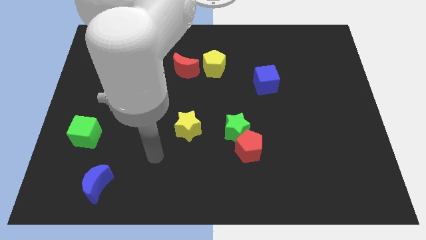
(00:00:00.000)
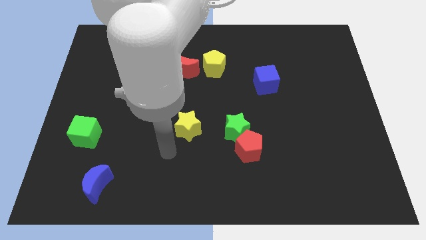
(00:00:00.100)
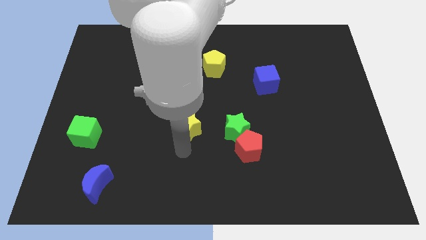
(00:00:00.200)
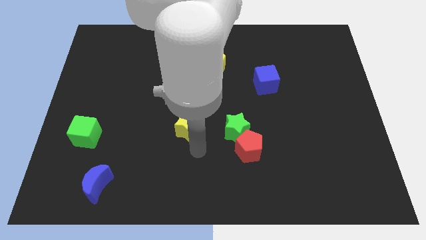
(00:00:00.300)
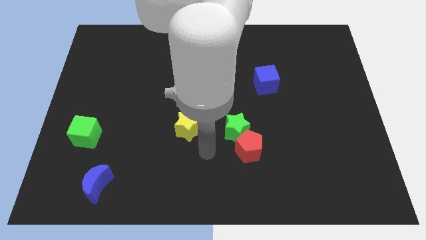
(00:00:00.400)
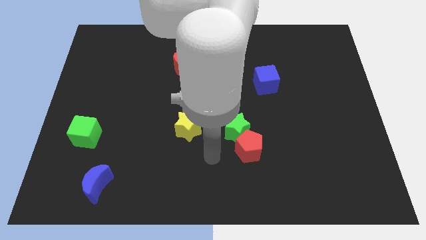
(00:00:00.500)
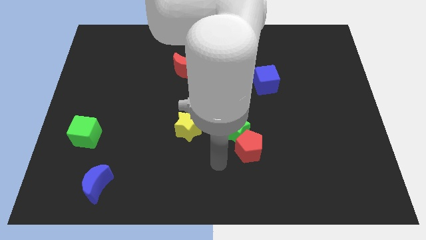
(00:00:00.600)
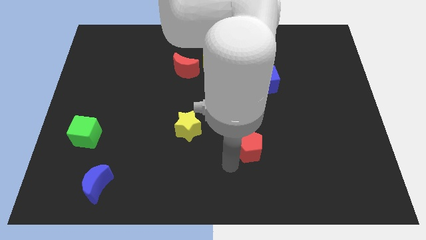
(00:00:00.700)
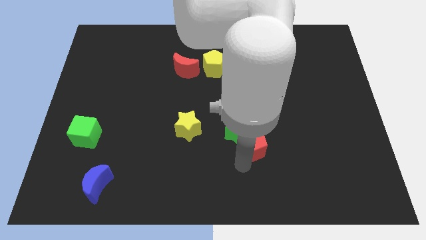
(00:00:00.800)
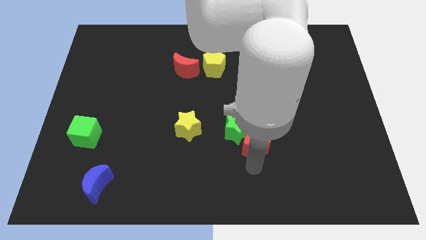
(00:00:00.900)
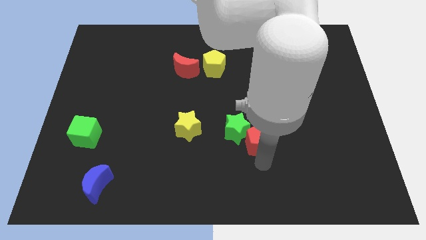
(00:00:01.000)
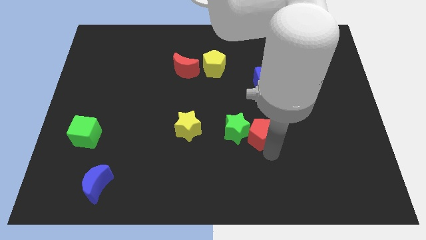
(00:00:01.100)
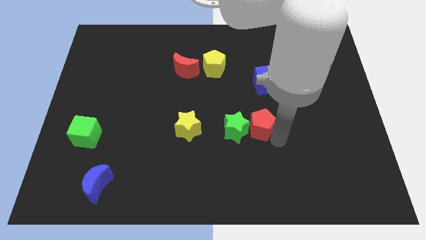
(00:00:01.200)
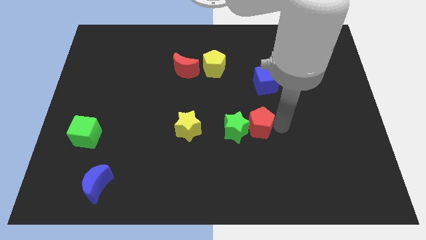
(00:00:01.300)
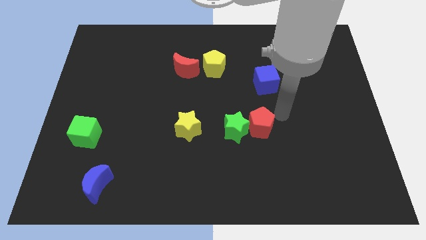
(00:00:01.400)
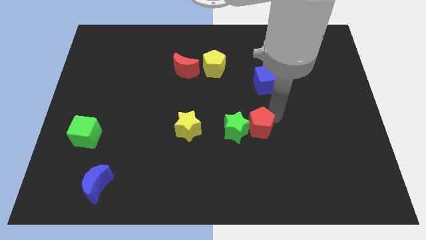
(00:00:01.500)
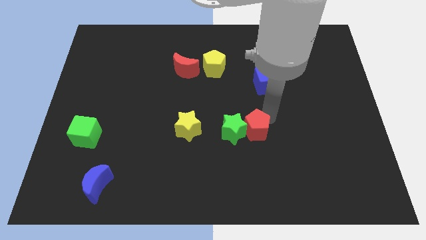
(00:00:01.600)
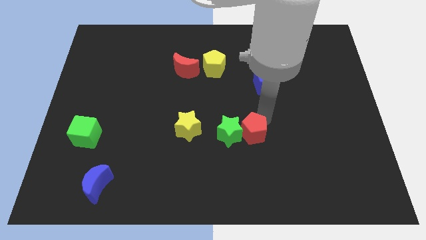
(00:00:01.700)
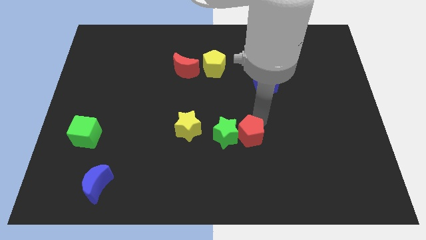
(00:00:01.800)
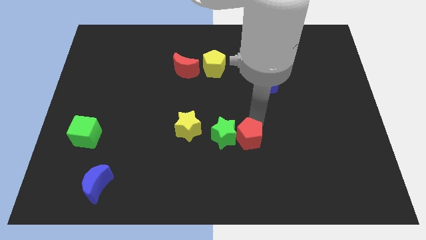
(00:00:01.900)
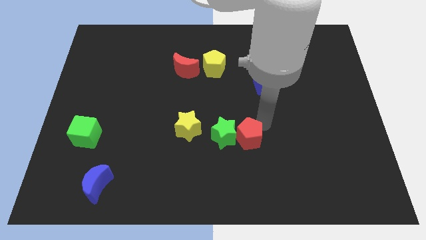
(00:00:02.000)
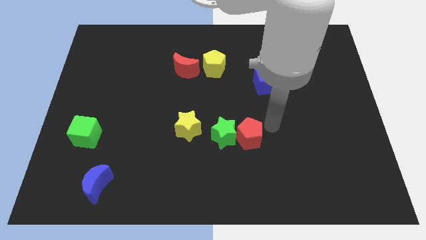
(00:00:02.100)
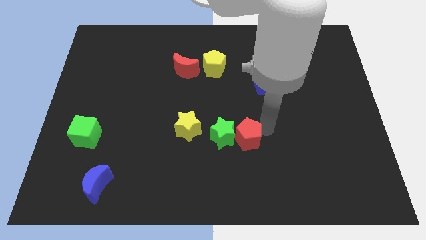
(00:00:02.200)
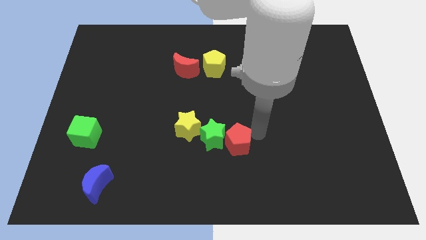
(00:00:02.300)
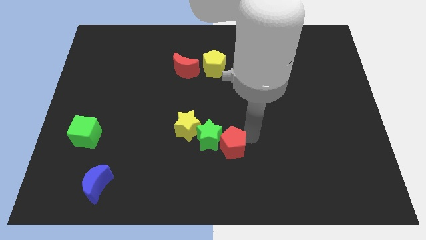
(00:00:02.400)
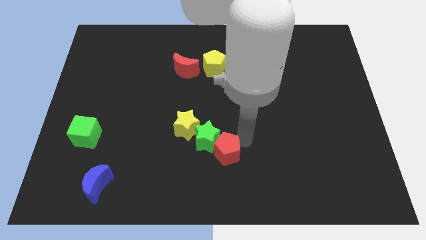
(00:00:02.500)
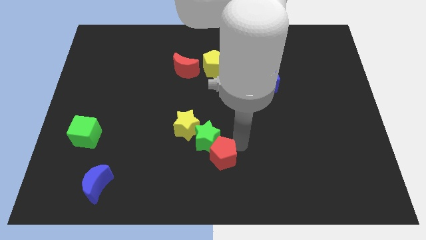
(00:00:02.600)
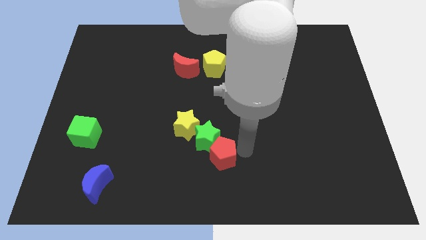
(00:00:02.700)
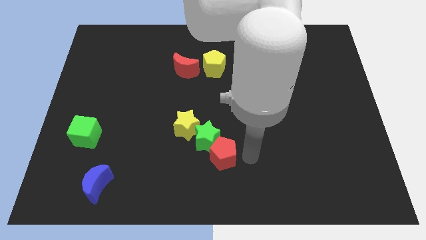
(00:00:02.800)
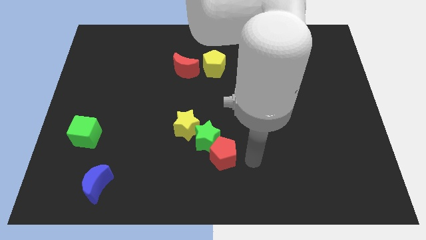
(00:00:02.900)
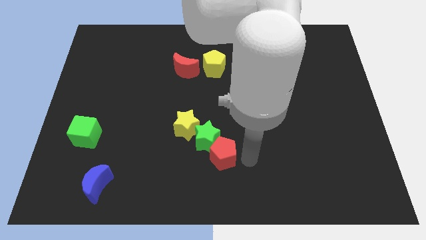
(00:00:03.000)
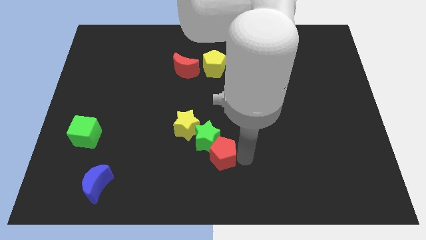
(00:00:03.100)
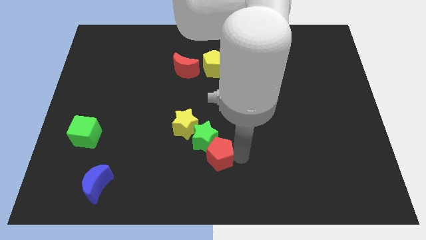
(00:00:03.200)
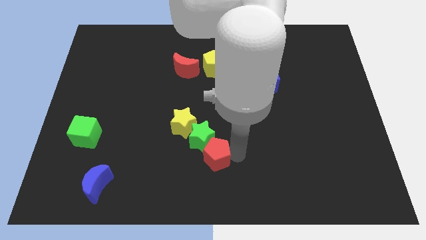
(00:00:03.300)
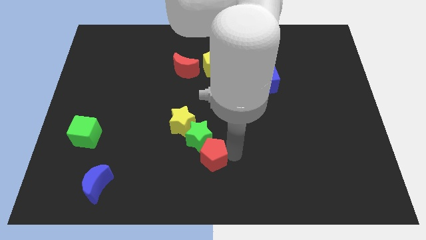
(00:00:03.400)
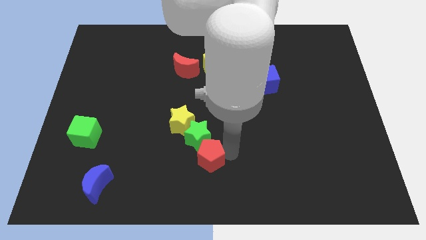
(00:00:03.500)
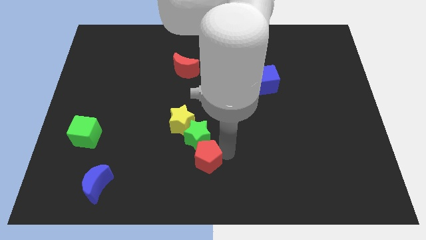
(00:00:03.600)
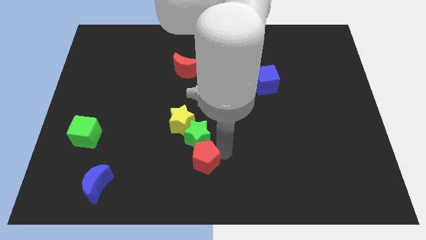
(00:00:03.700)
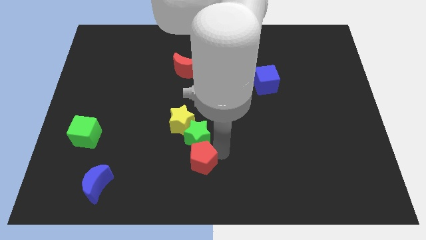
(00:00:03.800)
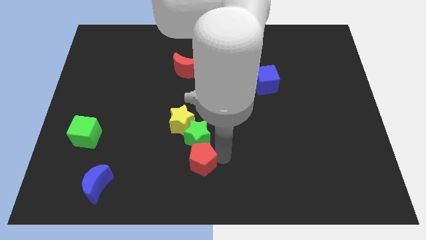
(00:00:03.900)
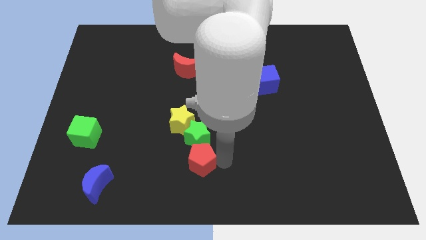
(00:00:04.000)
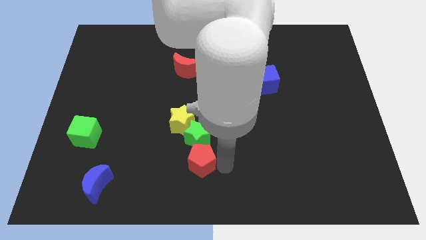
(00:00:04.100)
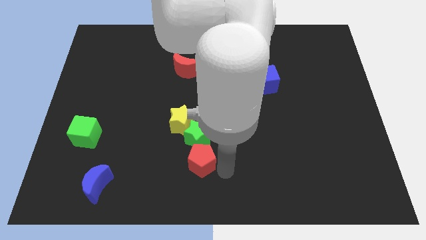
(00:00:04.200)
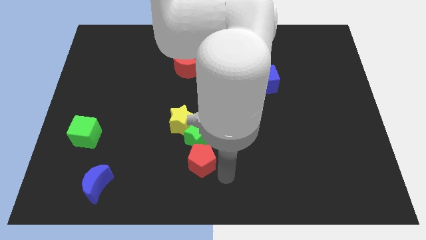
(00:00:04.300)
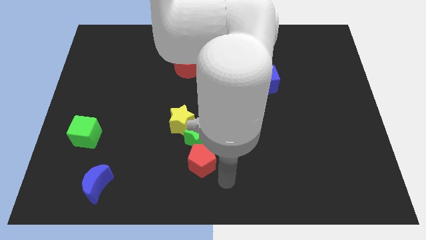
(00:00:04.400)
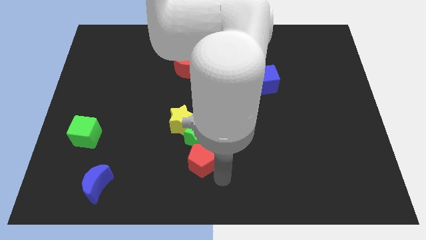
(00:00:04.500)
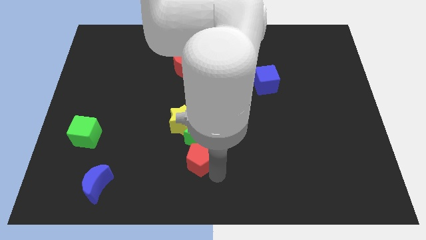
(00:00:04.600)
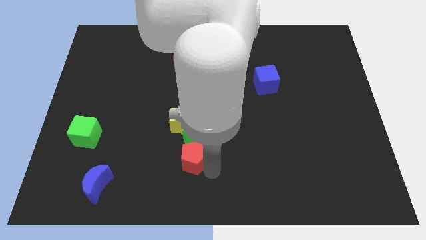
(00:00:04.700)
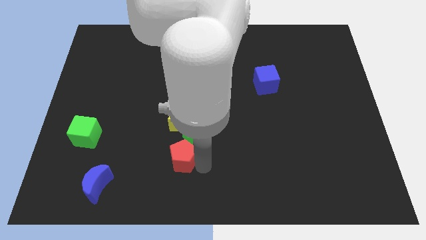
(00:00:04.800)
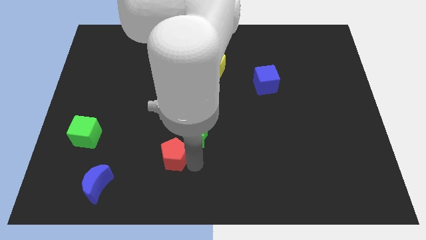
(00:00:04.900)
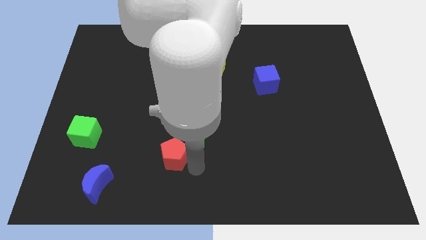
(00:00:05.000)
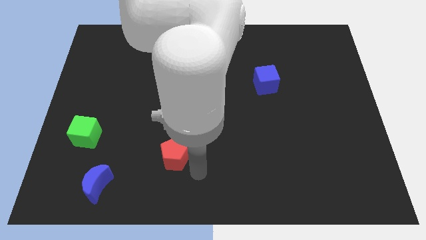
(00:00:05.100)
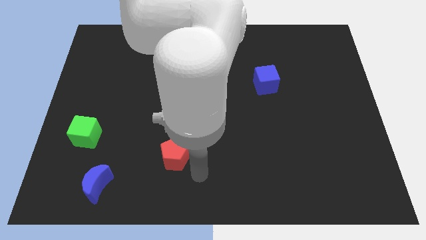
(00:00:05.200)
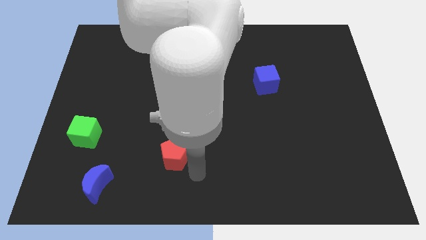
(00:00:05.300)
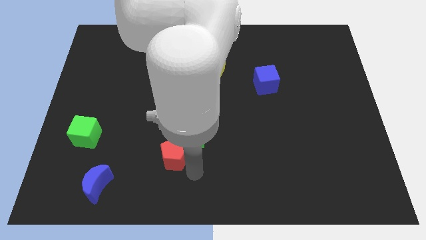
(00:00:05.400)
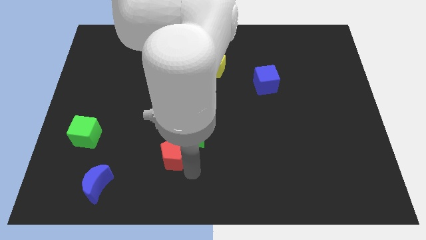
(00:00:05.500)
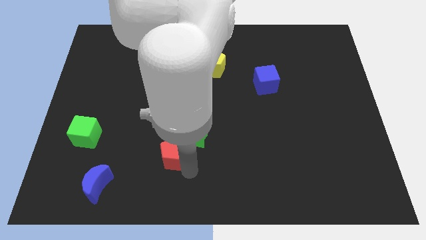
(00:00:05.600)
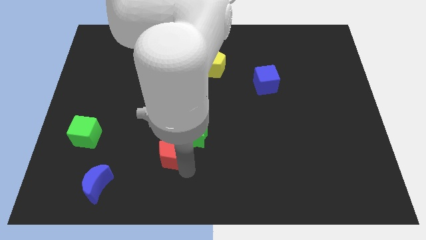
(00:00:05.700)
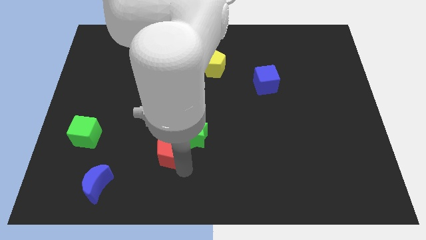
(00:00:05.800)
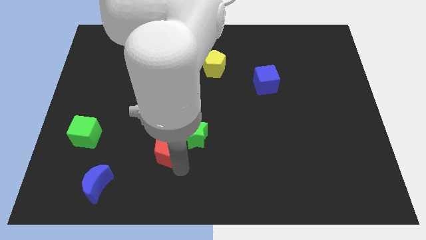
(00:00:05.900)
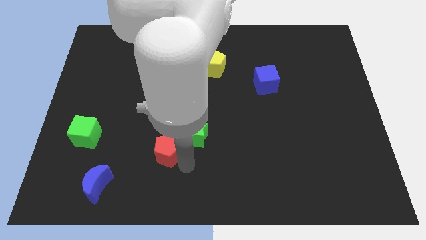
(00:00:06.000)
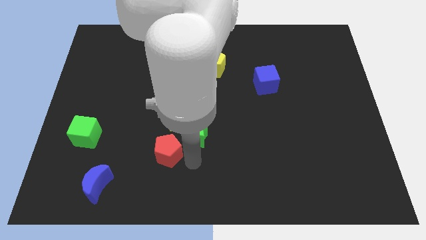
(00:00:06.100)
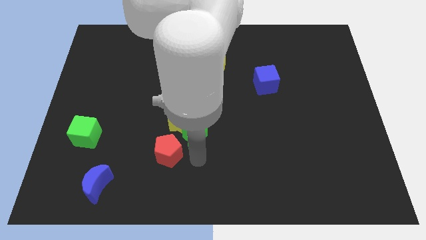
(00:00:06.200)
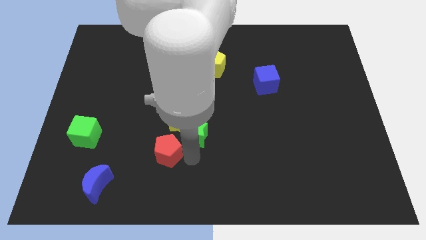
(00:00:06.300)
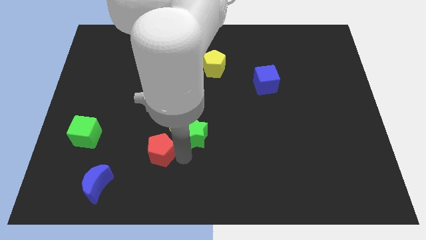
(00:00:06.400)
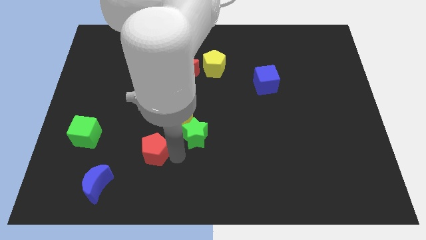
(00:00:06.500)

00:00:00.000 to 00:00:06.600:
push the red pentagon left

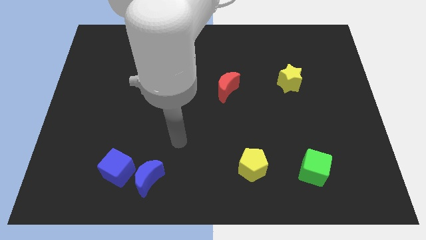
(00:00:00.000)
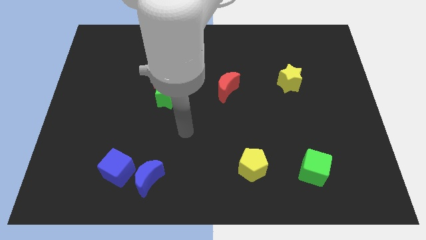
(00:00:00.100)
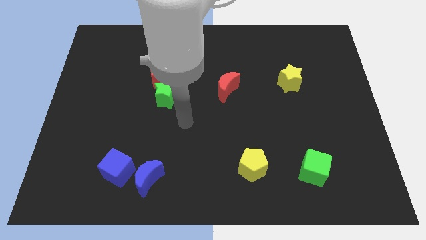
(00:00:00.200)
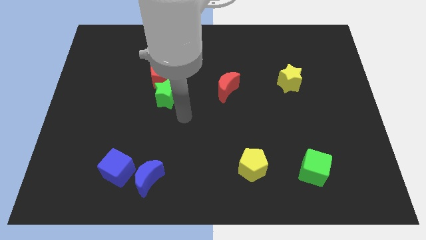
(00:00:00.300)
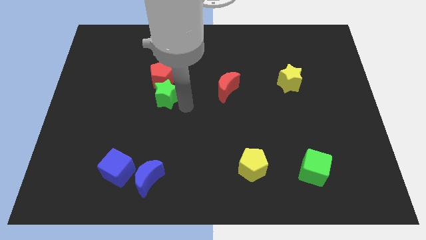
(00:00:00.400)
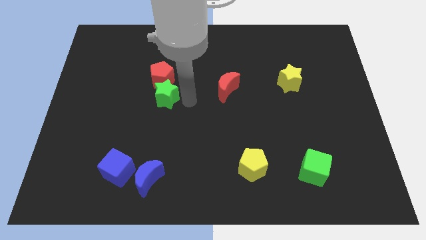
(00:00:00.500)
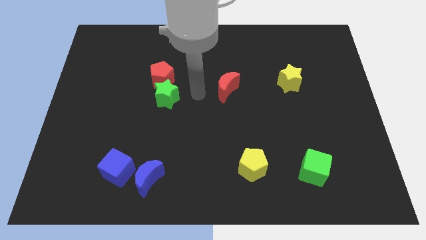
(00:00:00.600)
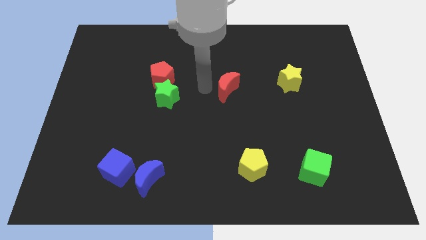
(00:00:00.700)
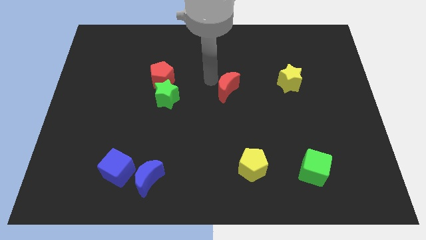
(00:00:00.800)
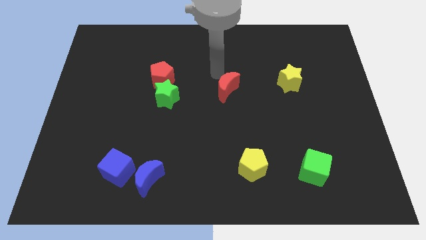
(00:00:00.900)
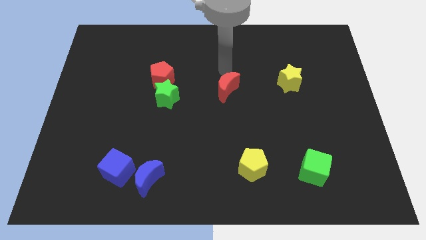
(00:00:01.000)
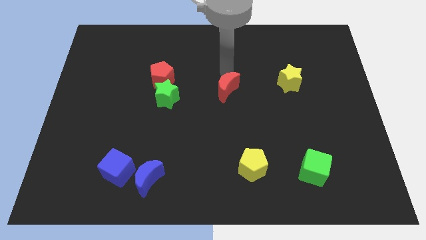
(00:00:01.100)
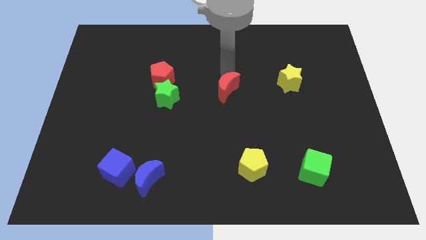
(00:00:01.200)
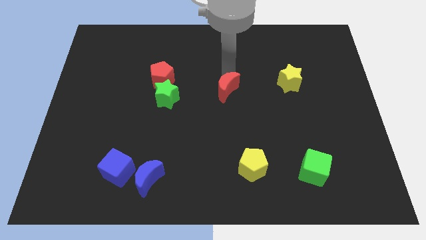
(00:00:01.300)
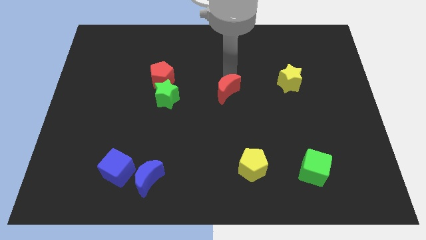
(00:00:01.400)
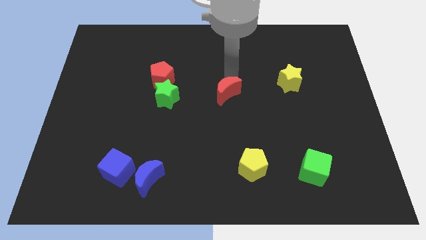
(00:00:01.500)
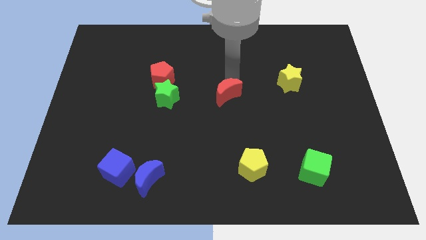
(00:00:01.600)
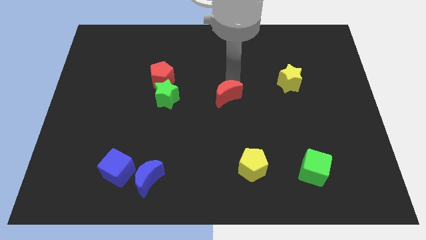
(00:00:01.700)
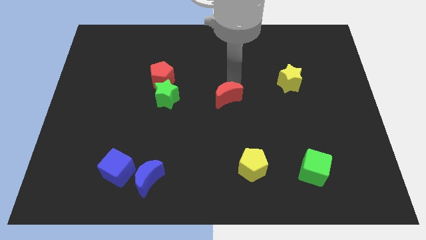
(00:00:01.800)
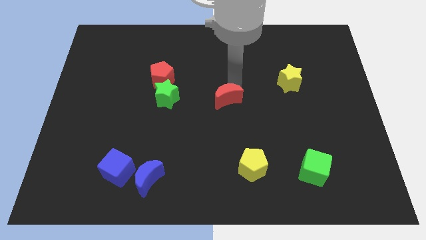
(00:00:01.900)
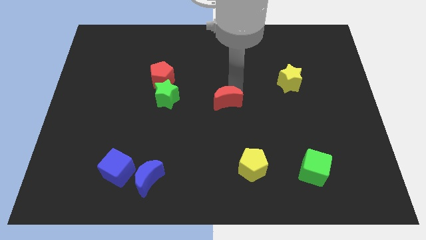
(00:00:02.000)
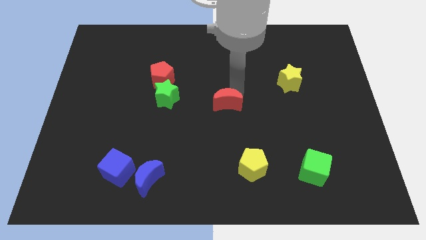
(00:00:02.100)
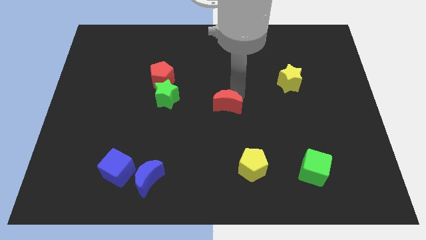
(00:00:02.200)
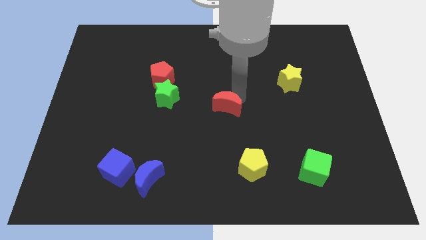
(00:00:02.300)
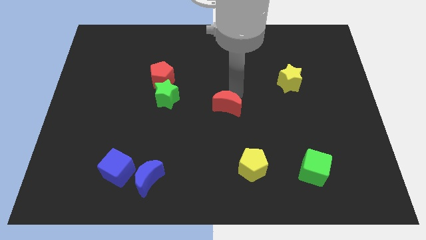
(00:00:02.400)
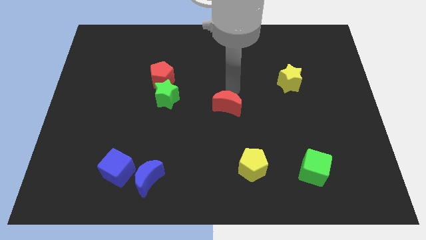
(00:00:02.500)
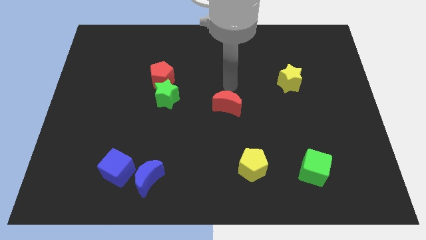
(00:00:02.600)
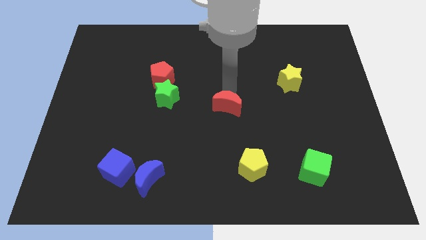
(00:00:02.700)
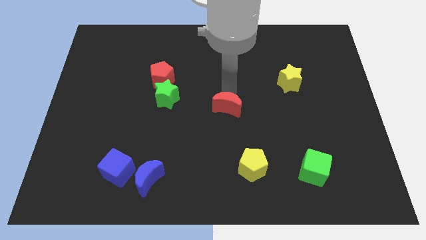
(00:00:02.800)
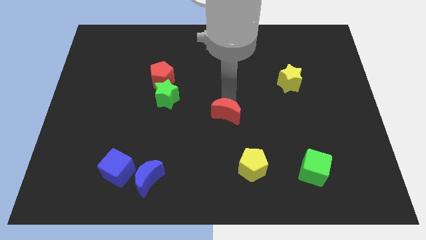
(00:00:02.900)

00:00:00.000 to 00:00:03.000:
push the red moon down slightly
